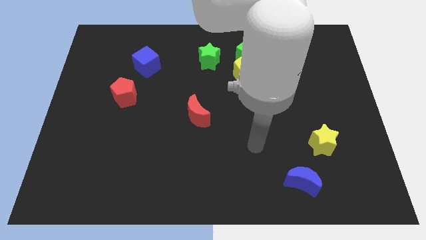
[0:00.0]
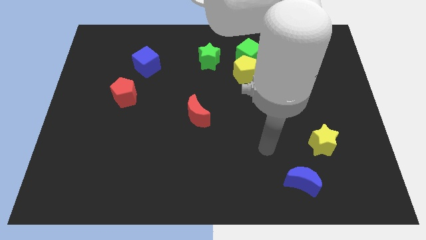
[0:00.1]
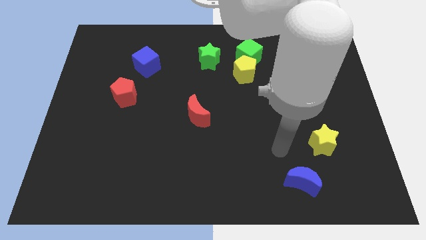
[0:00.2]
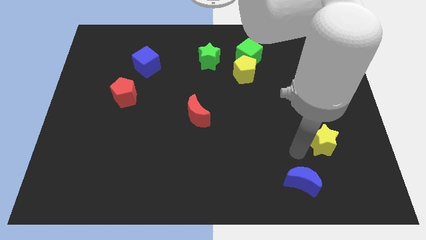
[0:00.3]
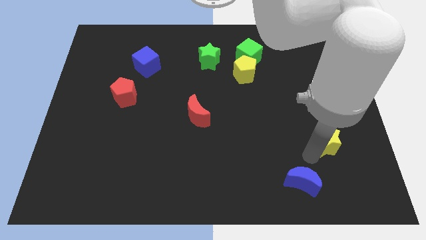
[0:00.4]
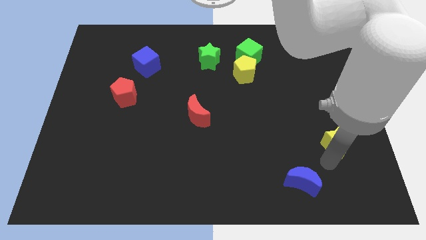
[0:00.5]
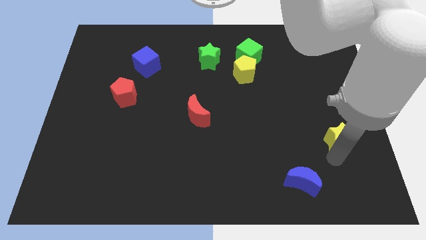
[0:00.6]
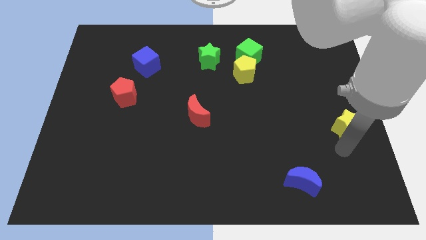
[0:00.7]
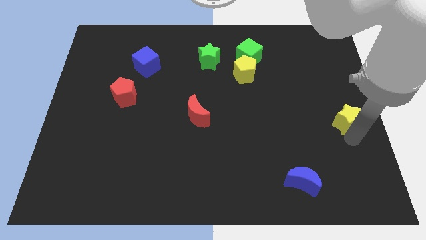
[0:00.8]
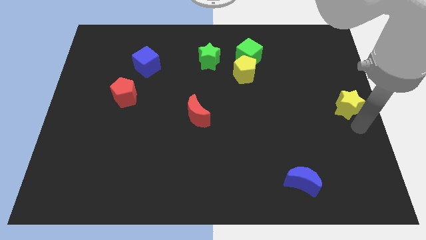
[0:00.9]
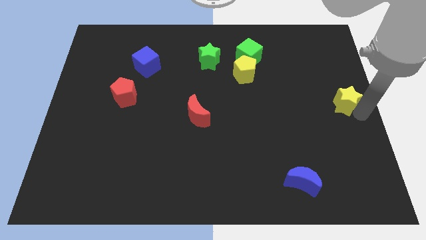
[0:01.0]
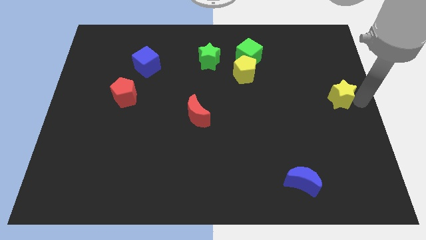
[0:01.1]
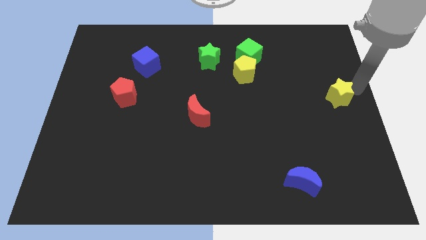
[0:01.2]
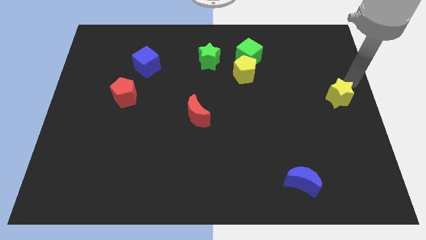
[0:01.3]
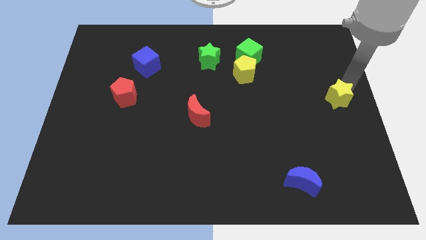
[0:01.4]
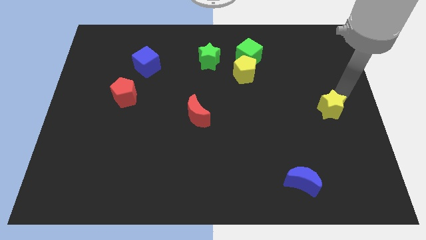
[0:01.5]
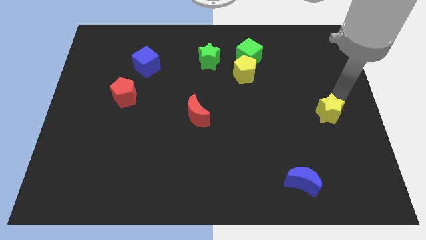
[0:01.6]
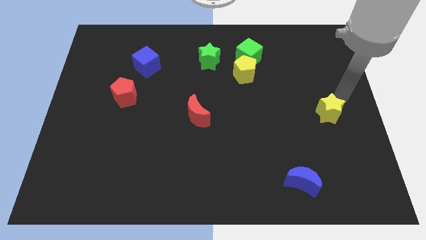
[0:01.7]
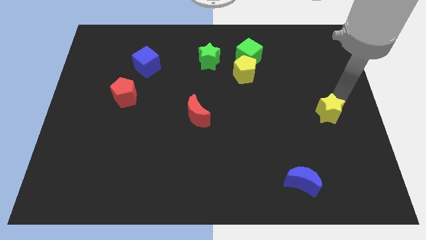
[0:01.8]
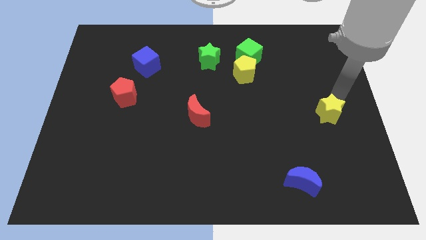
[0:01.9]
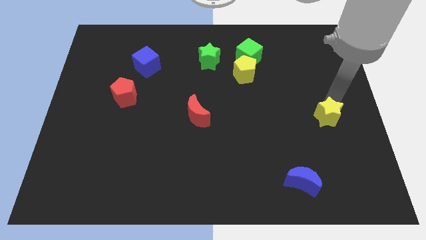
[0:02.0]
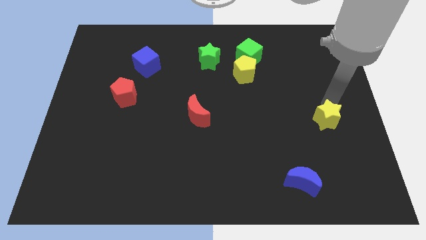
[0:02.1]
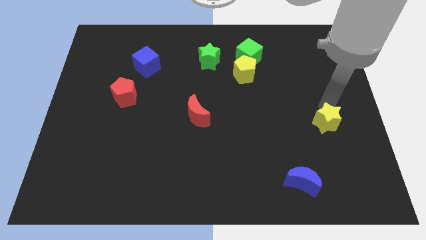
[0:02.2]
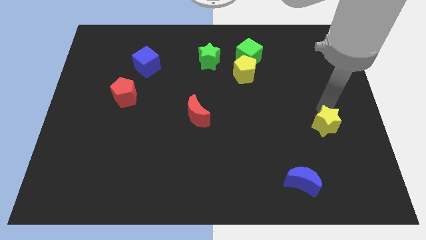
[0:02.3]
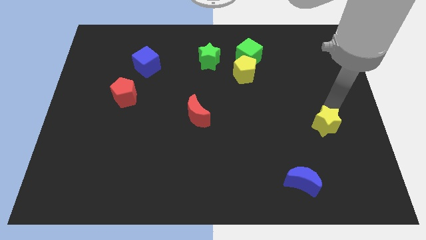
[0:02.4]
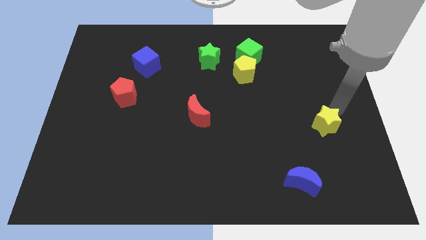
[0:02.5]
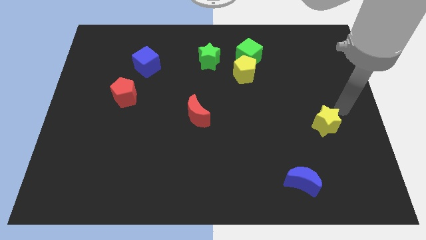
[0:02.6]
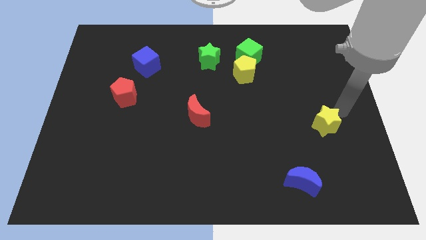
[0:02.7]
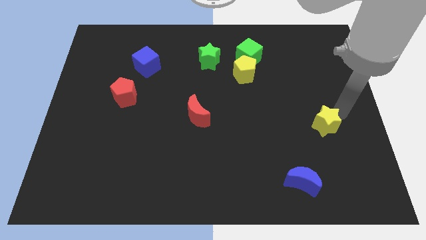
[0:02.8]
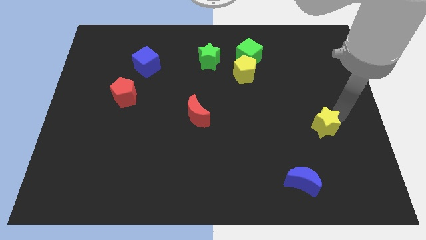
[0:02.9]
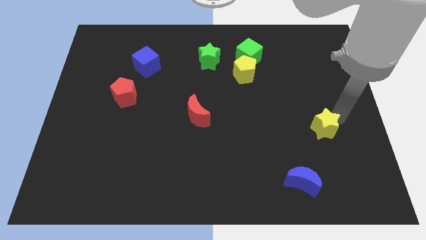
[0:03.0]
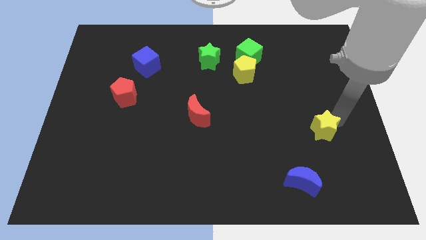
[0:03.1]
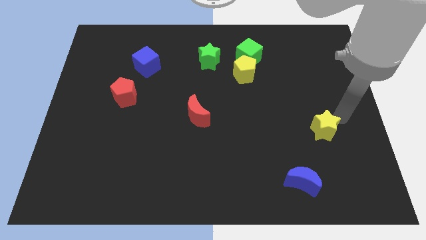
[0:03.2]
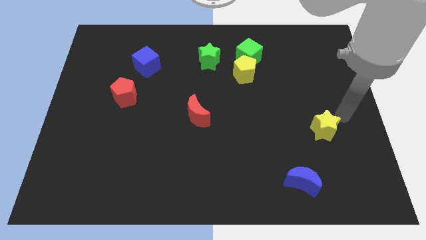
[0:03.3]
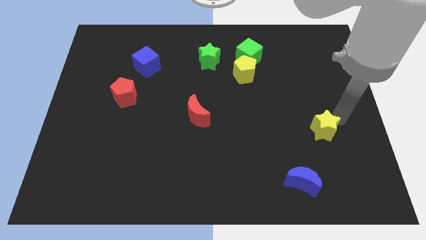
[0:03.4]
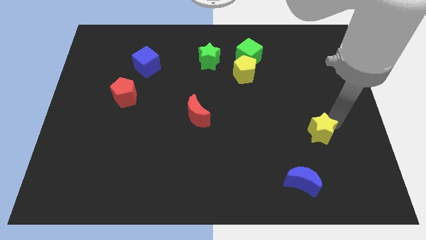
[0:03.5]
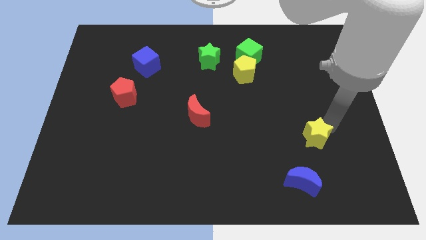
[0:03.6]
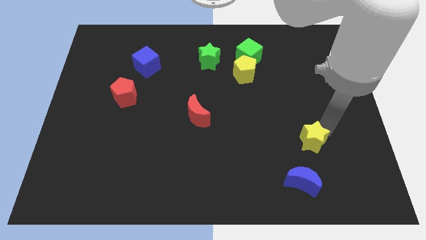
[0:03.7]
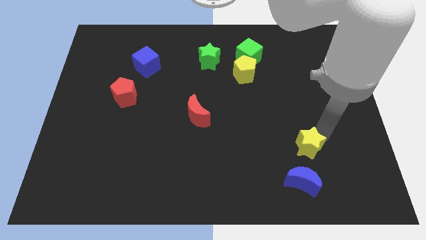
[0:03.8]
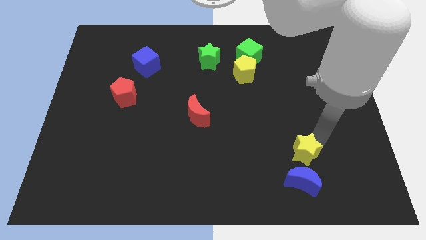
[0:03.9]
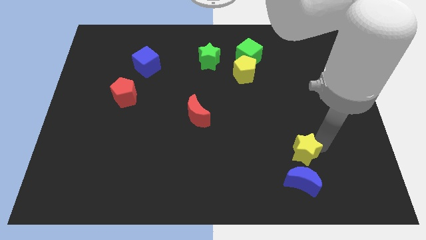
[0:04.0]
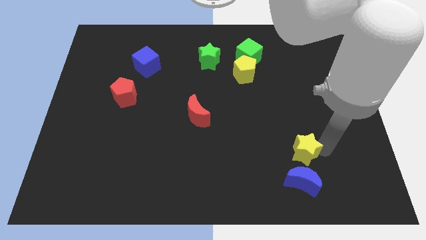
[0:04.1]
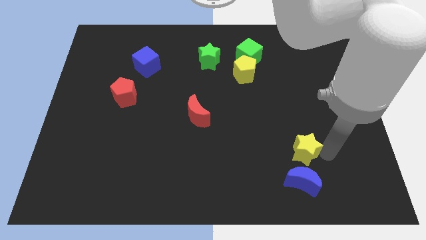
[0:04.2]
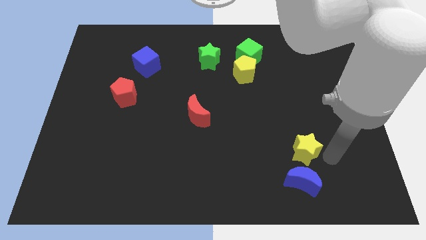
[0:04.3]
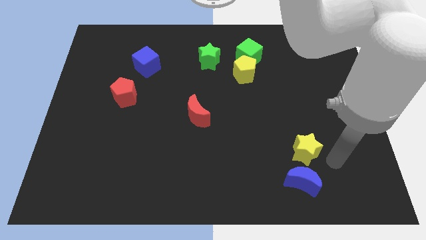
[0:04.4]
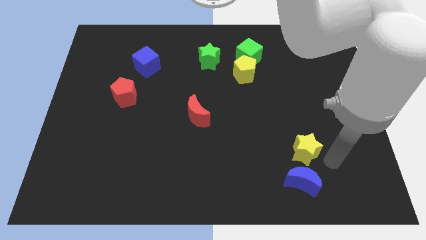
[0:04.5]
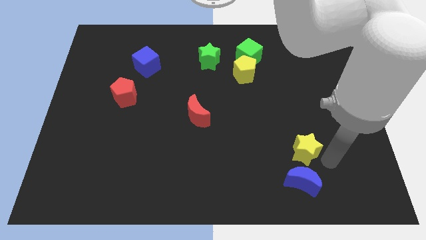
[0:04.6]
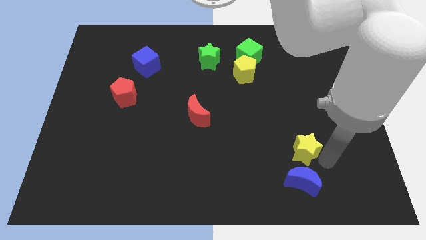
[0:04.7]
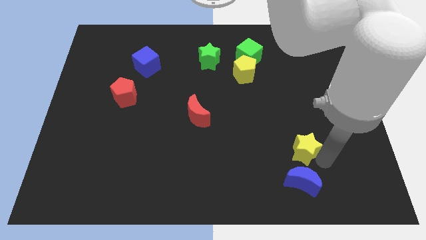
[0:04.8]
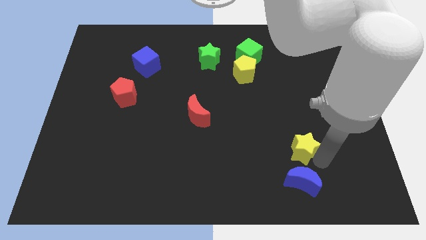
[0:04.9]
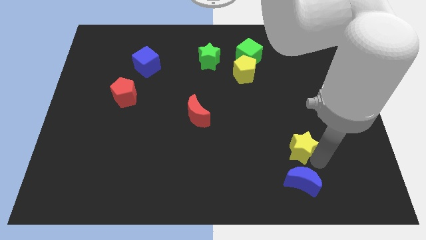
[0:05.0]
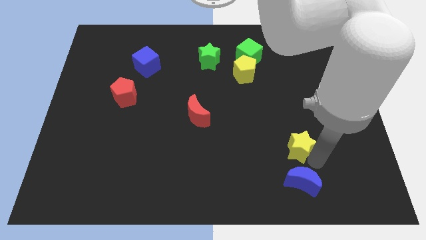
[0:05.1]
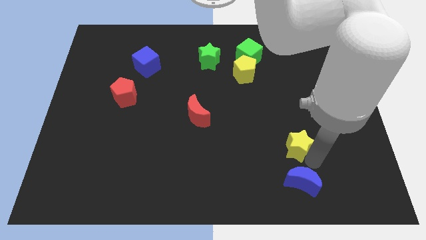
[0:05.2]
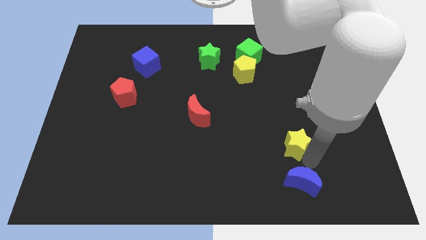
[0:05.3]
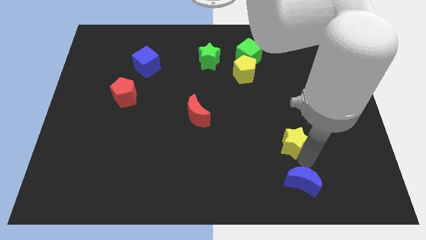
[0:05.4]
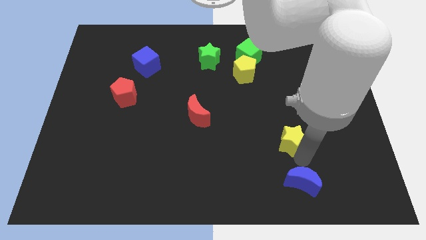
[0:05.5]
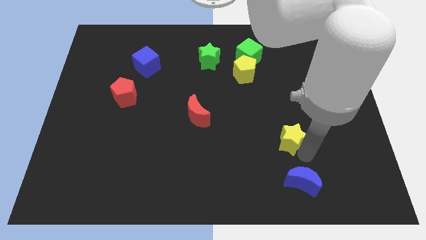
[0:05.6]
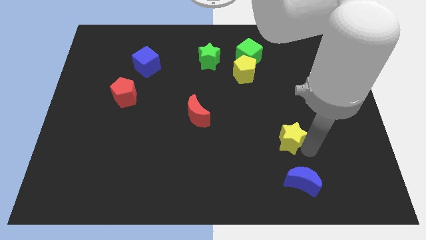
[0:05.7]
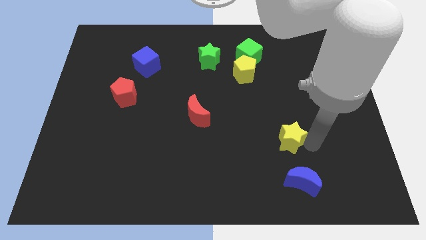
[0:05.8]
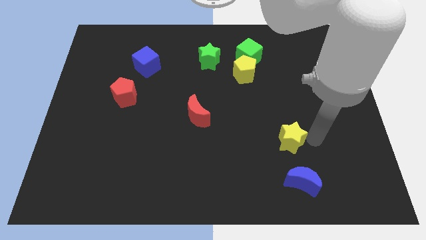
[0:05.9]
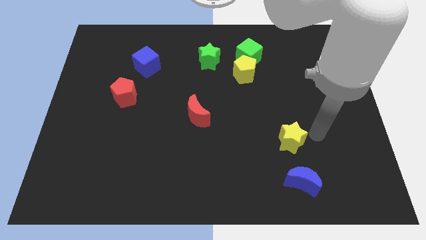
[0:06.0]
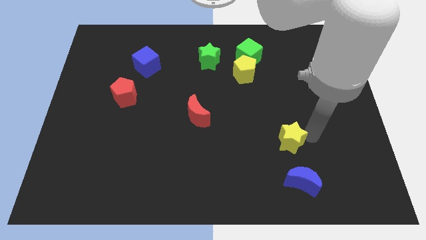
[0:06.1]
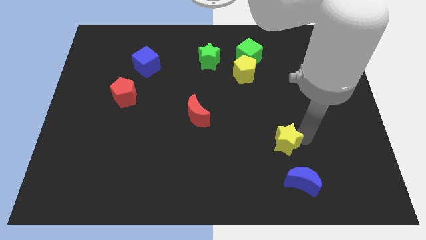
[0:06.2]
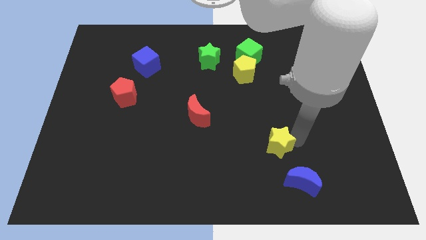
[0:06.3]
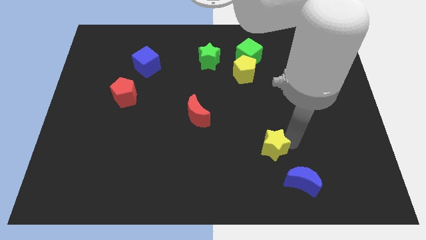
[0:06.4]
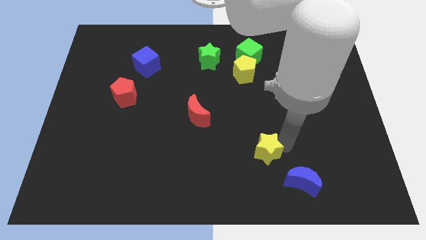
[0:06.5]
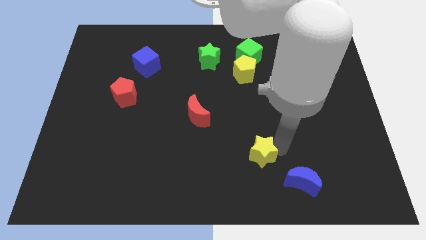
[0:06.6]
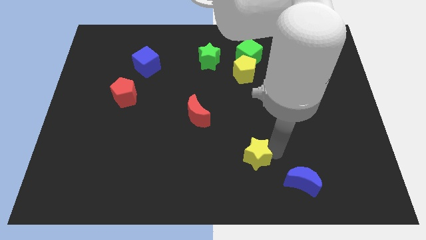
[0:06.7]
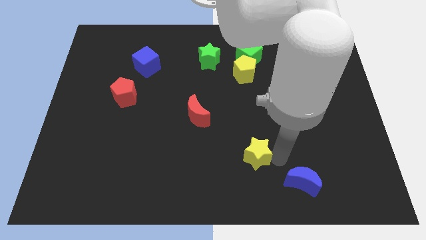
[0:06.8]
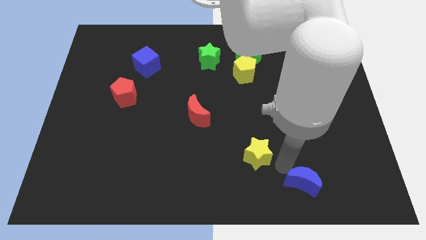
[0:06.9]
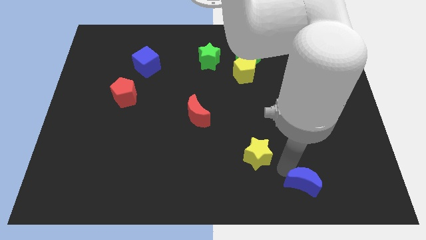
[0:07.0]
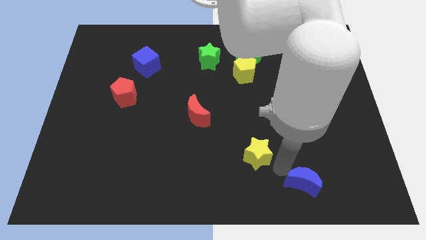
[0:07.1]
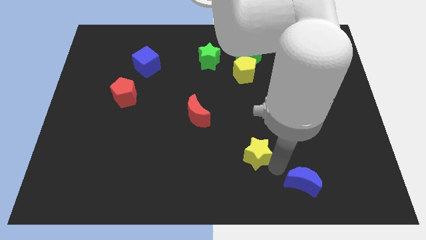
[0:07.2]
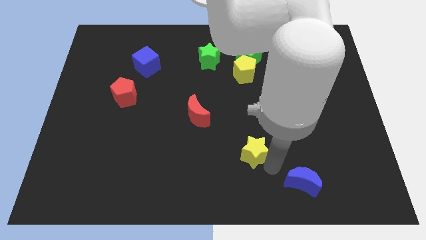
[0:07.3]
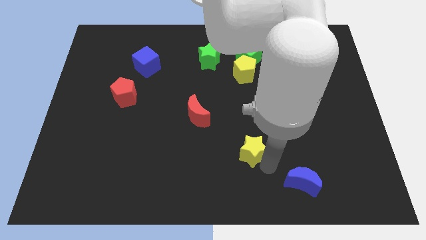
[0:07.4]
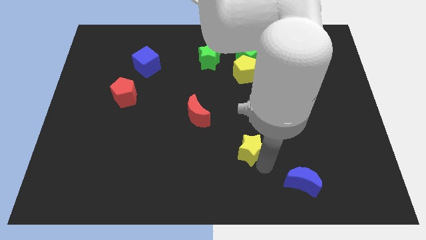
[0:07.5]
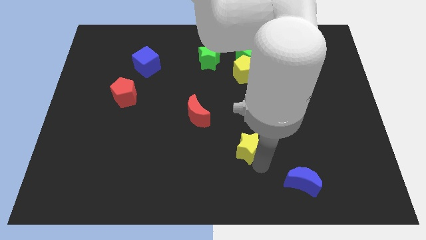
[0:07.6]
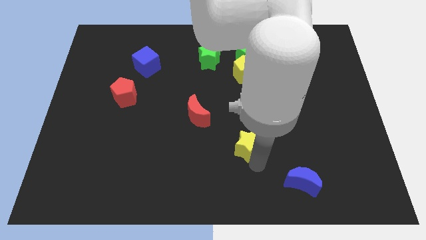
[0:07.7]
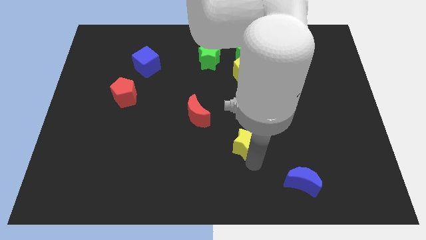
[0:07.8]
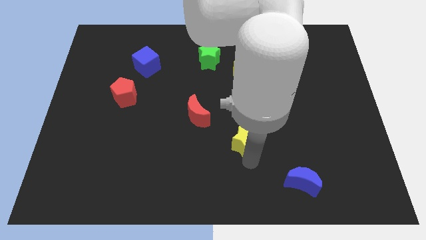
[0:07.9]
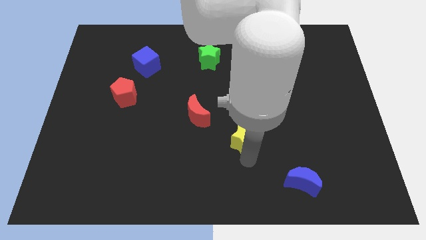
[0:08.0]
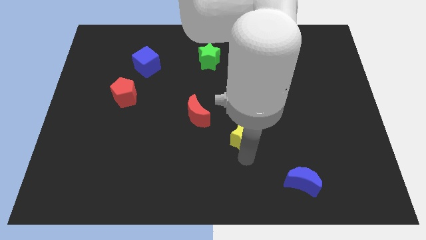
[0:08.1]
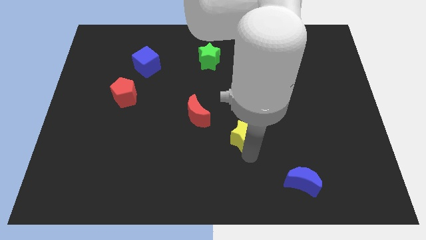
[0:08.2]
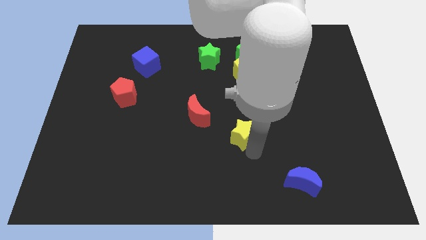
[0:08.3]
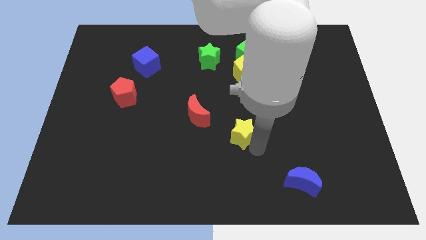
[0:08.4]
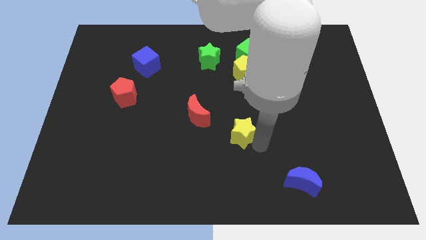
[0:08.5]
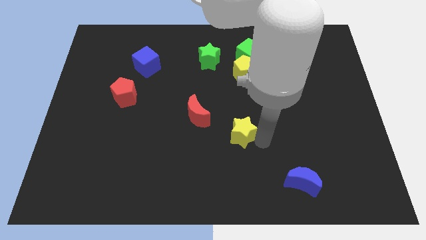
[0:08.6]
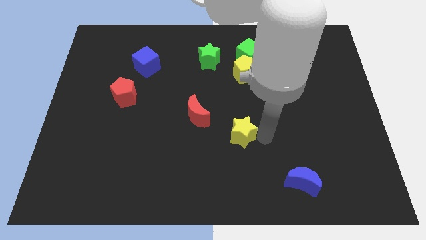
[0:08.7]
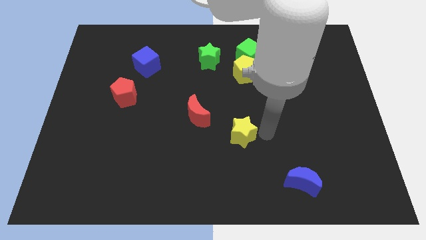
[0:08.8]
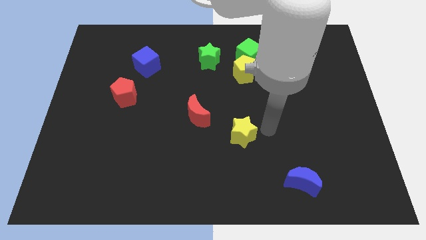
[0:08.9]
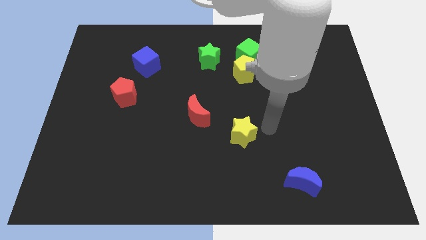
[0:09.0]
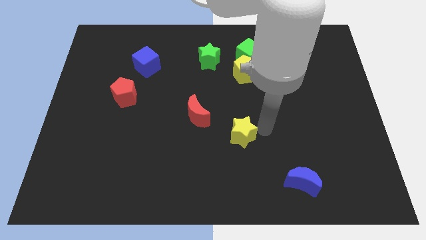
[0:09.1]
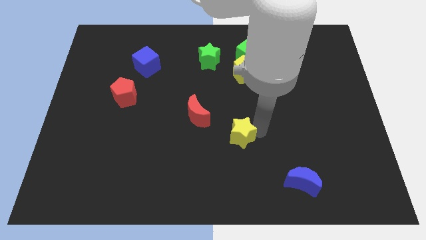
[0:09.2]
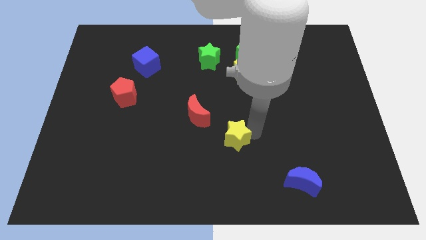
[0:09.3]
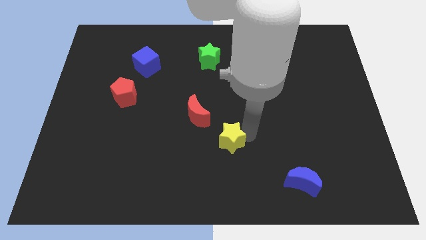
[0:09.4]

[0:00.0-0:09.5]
move the yellow star left
